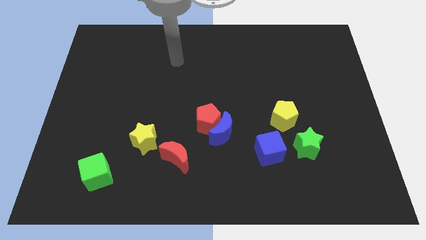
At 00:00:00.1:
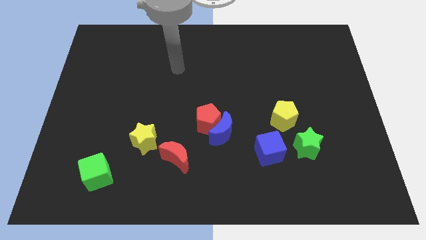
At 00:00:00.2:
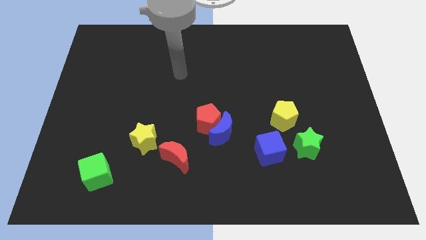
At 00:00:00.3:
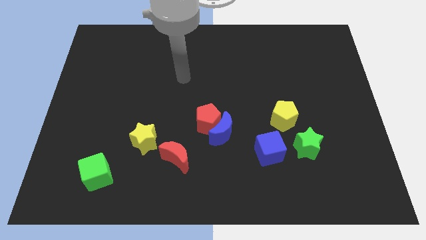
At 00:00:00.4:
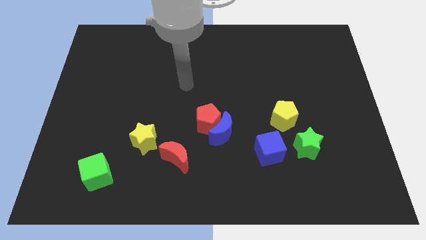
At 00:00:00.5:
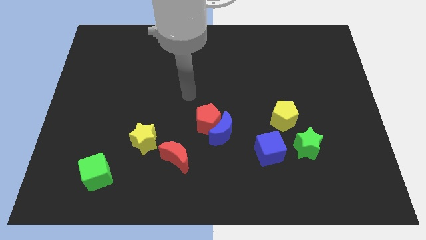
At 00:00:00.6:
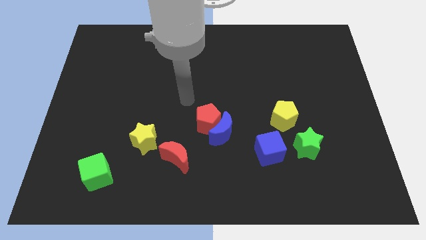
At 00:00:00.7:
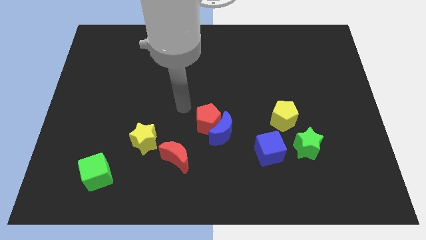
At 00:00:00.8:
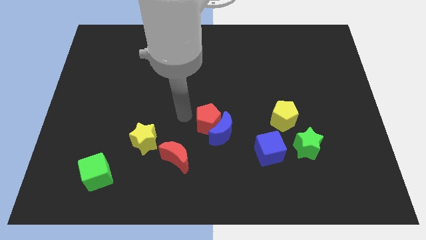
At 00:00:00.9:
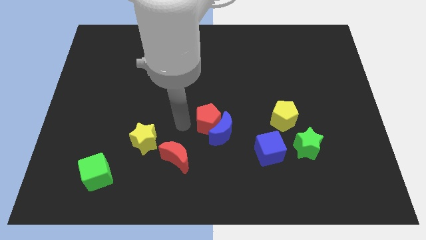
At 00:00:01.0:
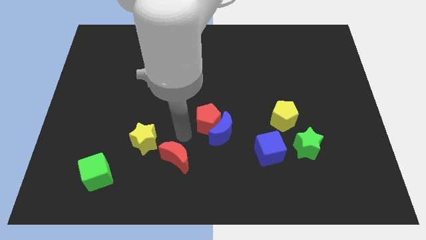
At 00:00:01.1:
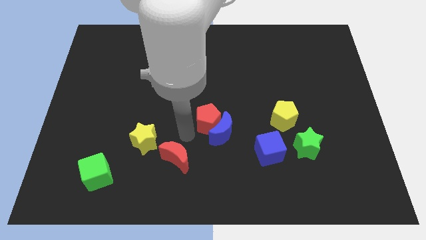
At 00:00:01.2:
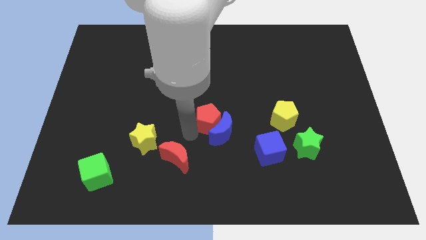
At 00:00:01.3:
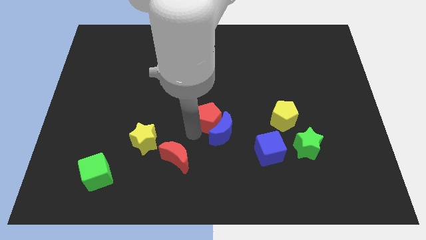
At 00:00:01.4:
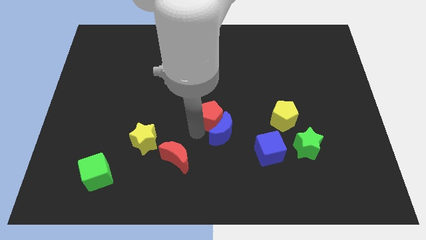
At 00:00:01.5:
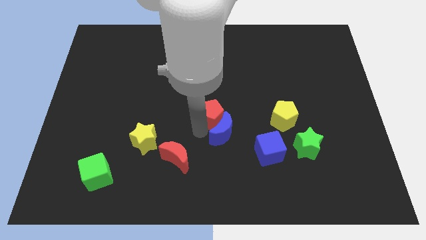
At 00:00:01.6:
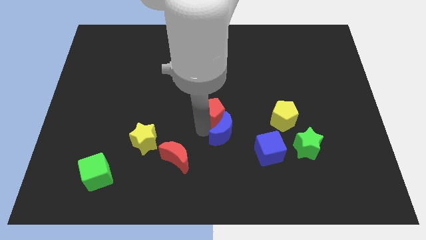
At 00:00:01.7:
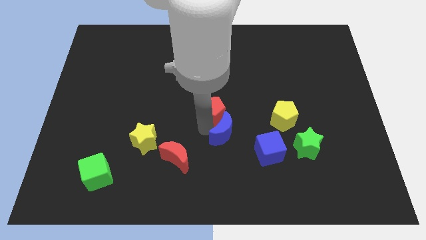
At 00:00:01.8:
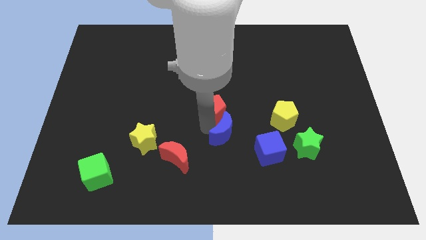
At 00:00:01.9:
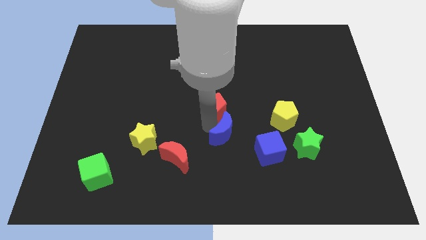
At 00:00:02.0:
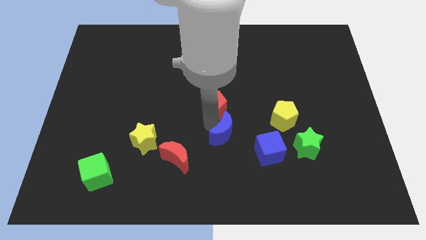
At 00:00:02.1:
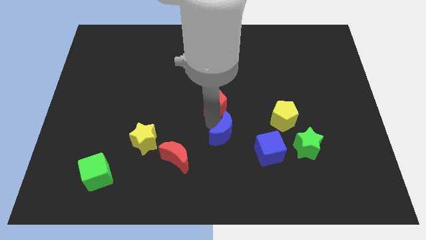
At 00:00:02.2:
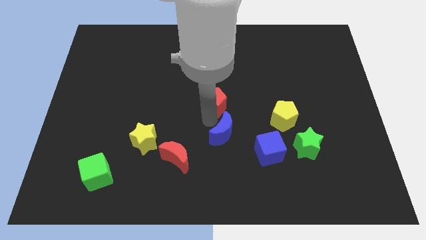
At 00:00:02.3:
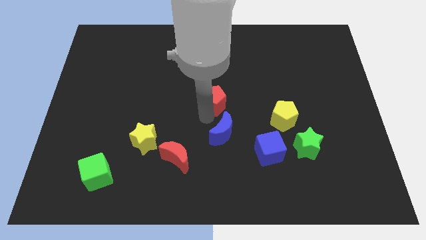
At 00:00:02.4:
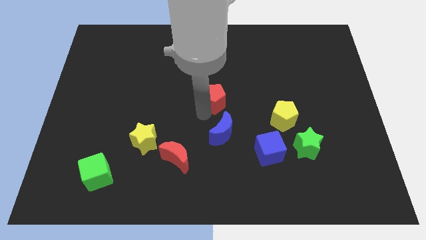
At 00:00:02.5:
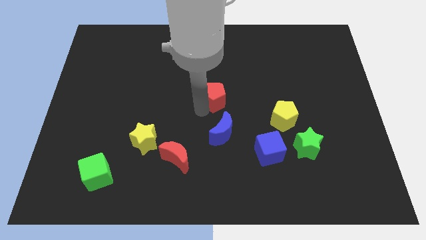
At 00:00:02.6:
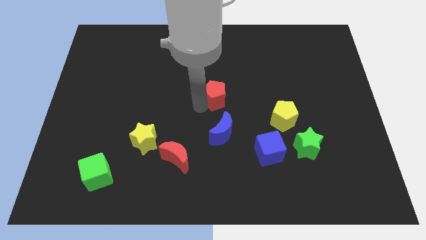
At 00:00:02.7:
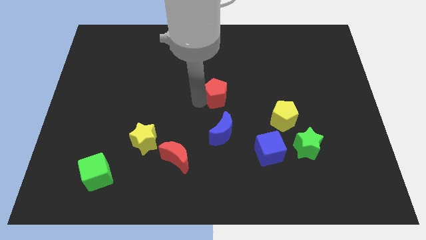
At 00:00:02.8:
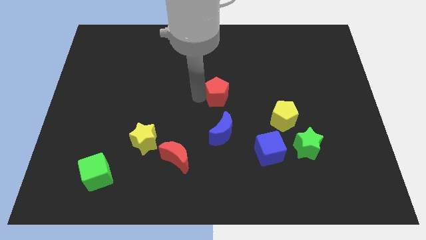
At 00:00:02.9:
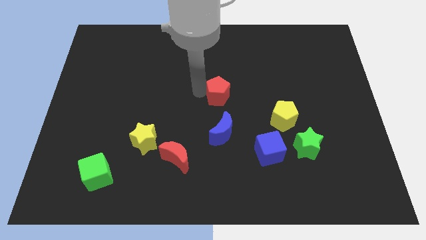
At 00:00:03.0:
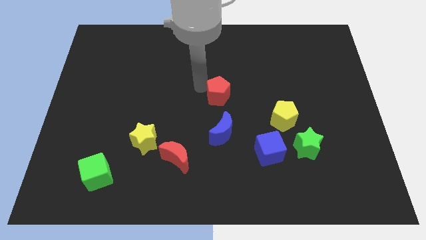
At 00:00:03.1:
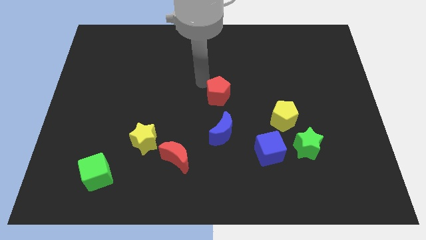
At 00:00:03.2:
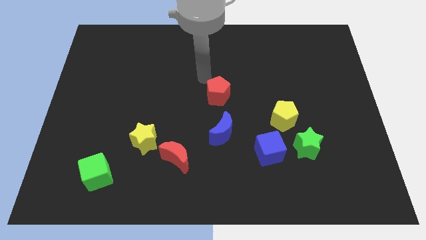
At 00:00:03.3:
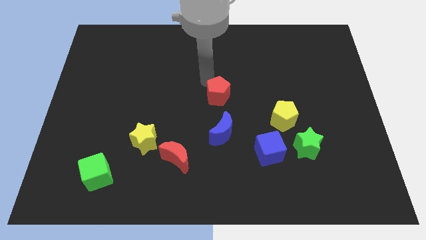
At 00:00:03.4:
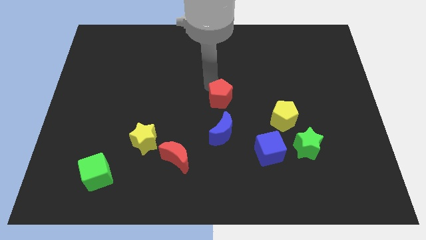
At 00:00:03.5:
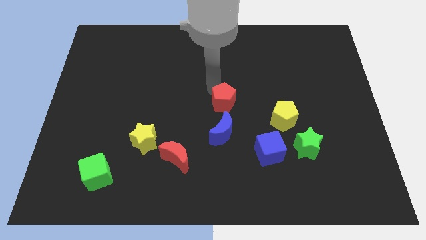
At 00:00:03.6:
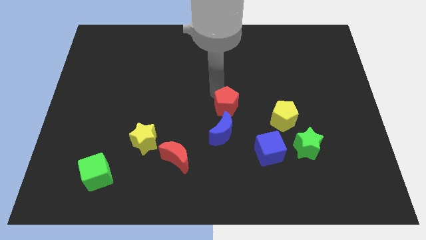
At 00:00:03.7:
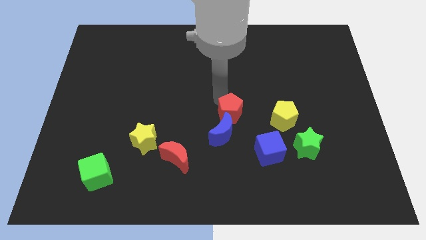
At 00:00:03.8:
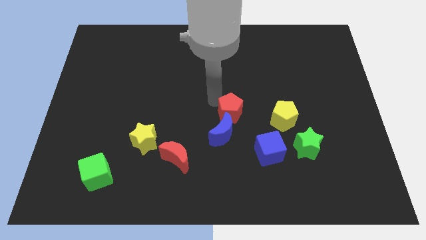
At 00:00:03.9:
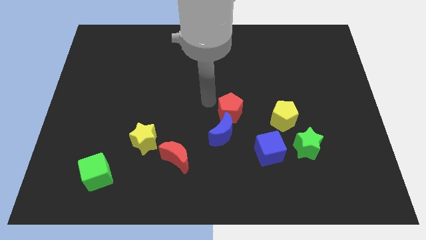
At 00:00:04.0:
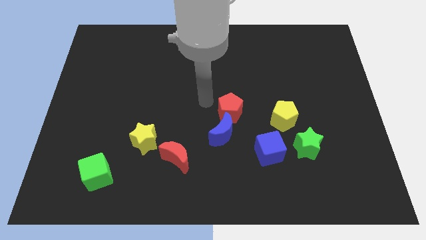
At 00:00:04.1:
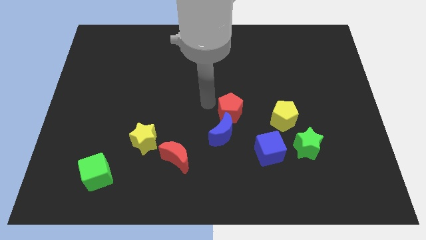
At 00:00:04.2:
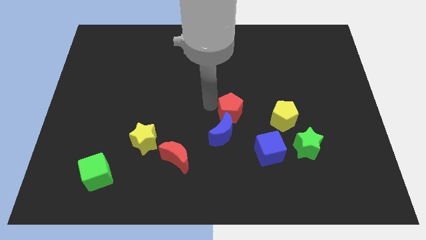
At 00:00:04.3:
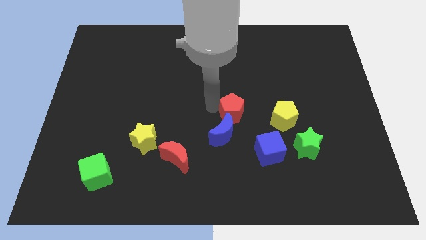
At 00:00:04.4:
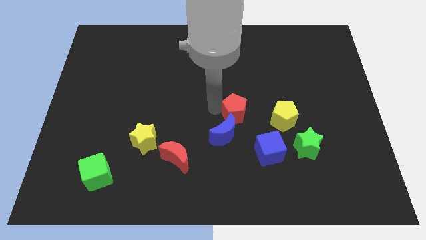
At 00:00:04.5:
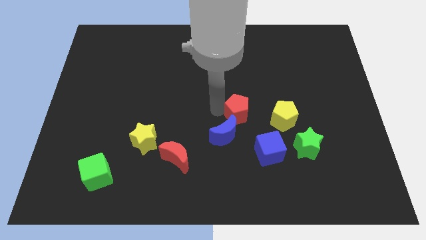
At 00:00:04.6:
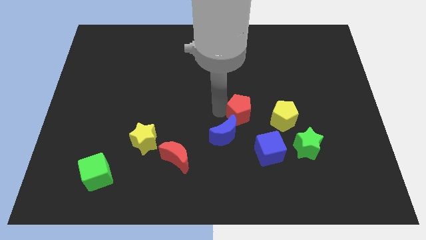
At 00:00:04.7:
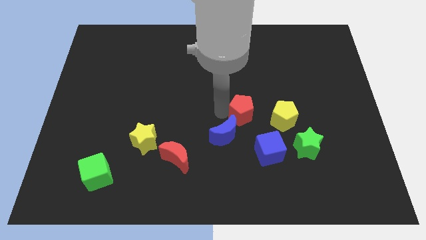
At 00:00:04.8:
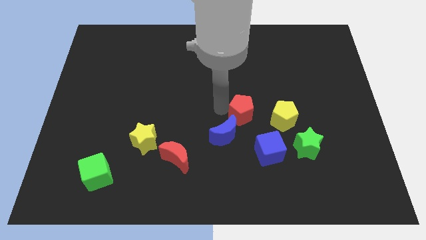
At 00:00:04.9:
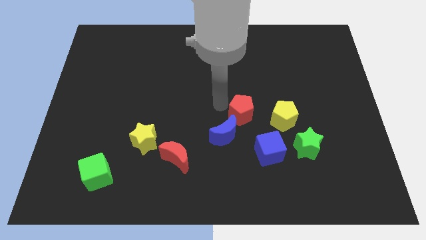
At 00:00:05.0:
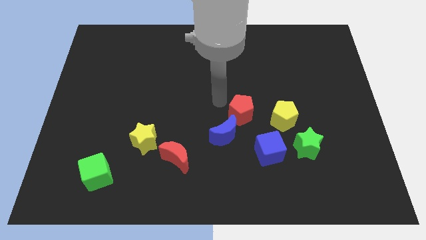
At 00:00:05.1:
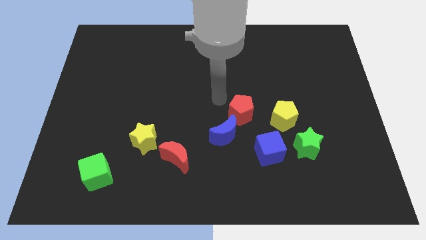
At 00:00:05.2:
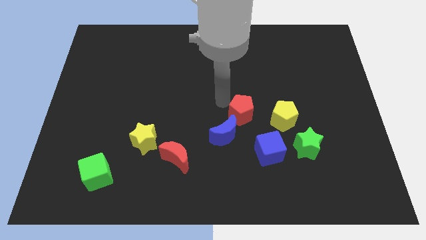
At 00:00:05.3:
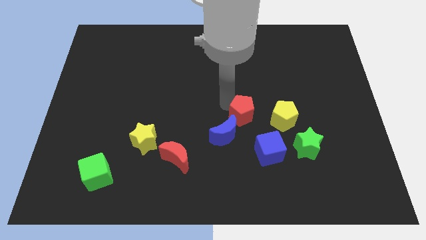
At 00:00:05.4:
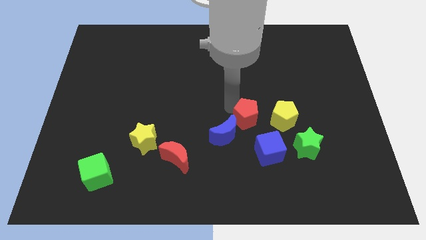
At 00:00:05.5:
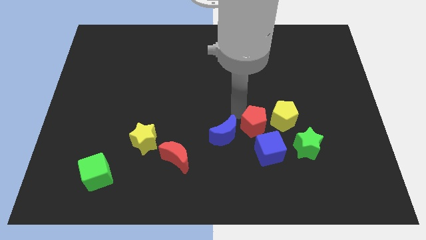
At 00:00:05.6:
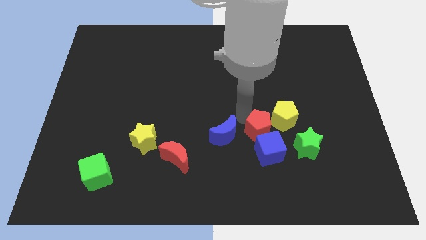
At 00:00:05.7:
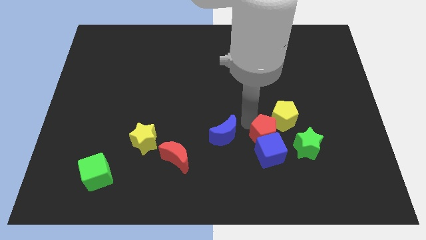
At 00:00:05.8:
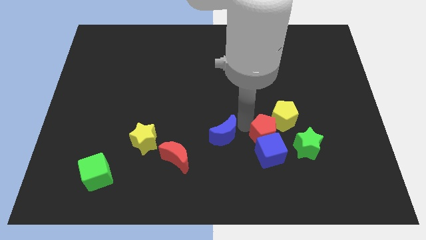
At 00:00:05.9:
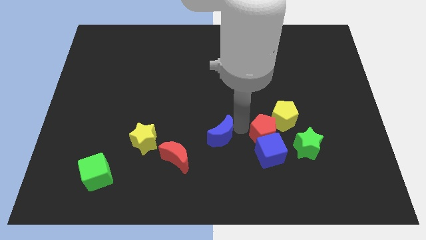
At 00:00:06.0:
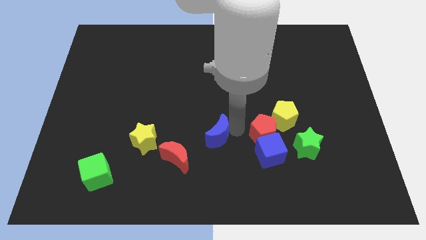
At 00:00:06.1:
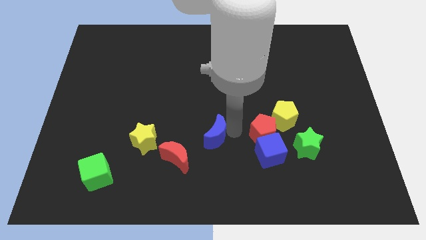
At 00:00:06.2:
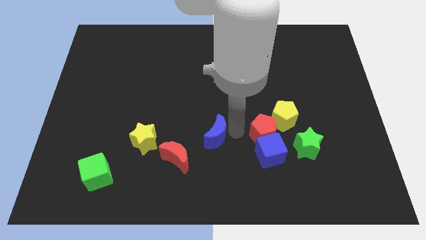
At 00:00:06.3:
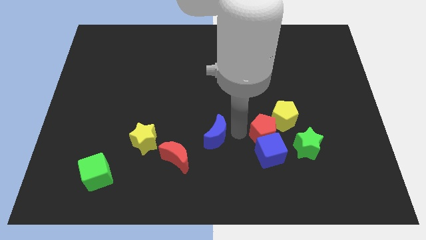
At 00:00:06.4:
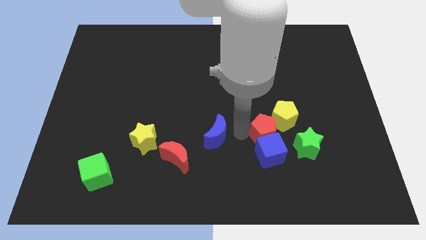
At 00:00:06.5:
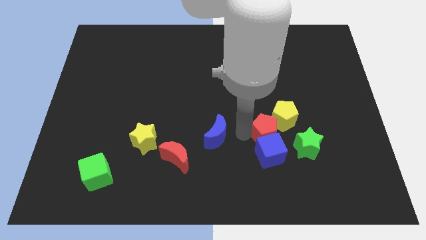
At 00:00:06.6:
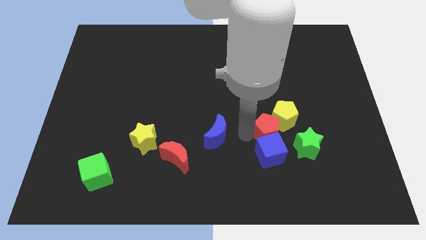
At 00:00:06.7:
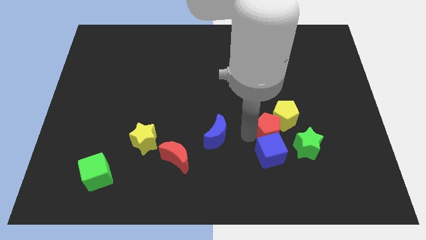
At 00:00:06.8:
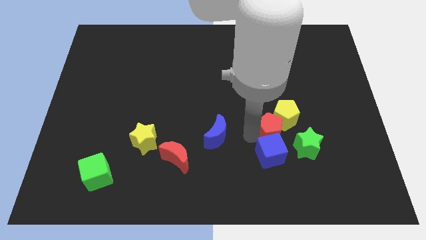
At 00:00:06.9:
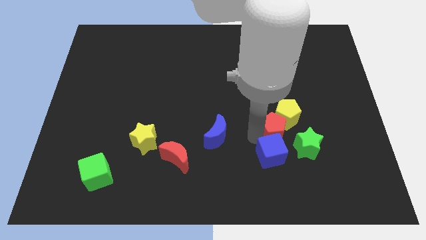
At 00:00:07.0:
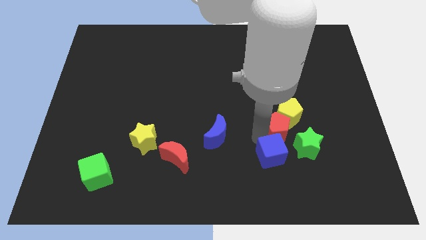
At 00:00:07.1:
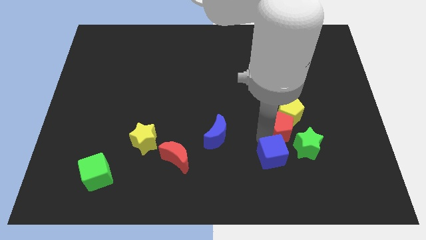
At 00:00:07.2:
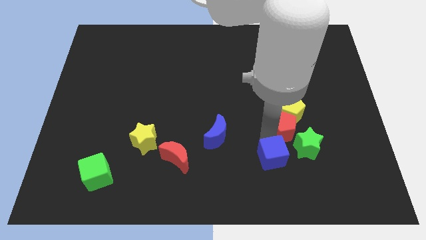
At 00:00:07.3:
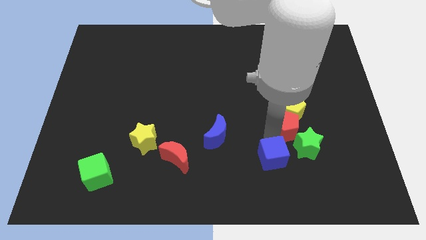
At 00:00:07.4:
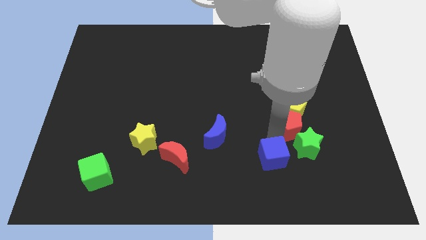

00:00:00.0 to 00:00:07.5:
put the red pentagon to the green star
